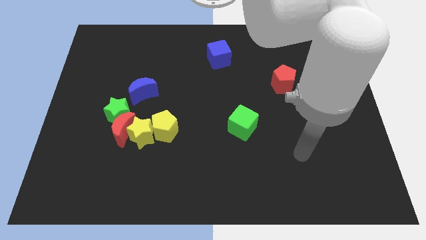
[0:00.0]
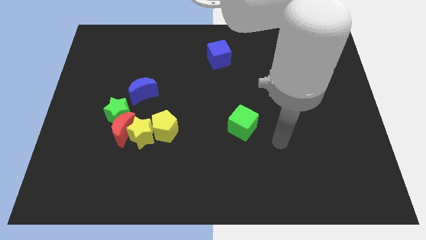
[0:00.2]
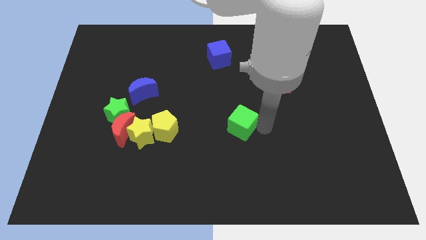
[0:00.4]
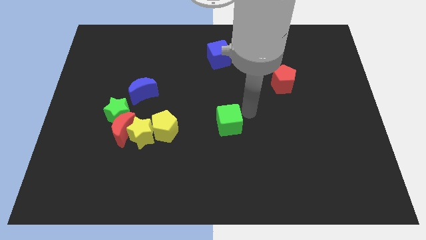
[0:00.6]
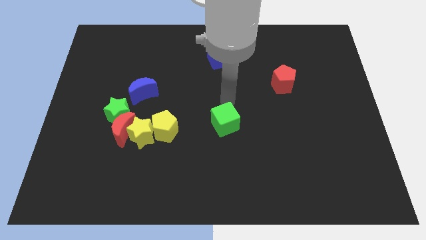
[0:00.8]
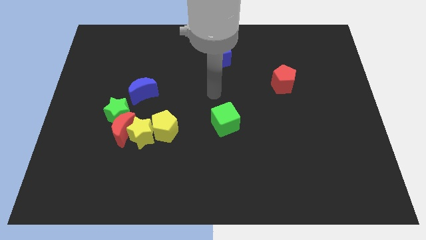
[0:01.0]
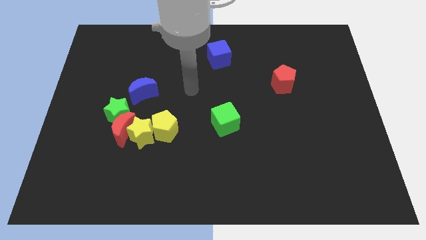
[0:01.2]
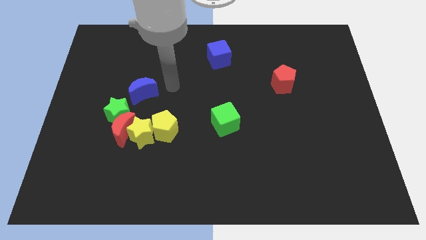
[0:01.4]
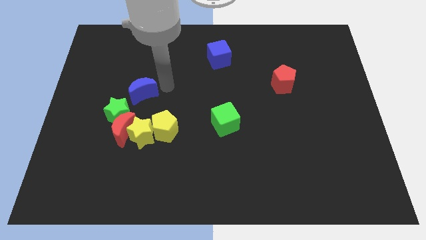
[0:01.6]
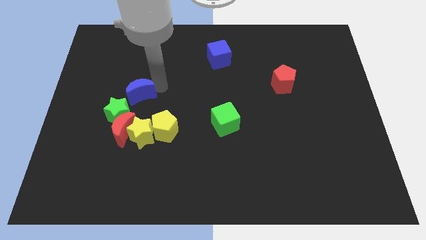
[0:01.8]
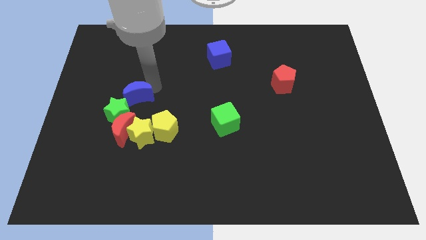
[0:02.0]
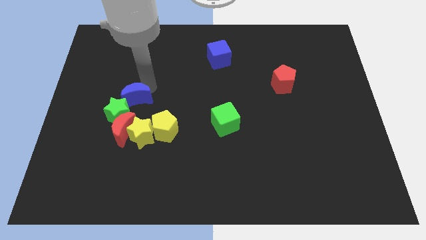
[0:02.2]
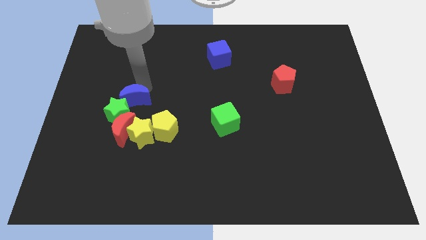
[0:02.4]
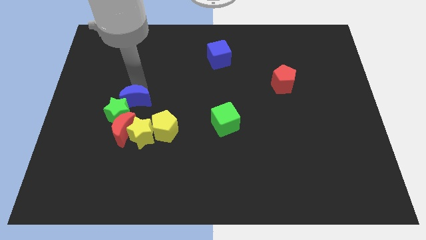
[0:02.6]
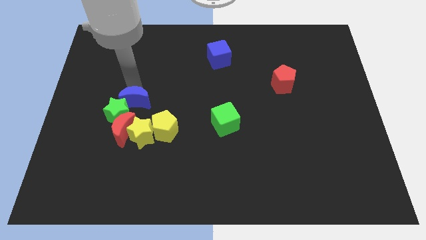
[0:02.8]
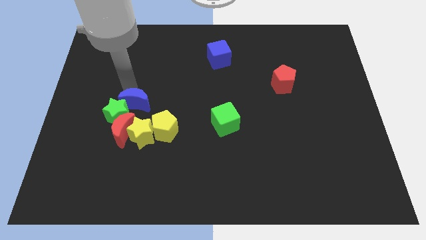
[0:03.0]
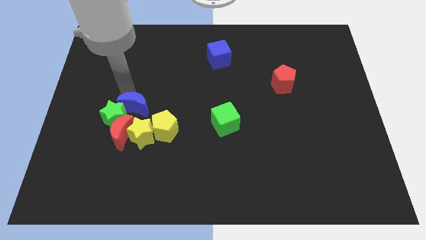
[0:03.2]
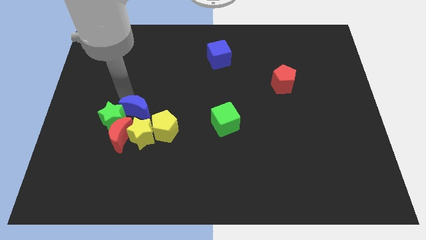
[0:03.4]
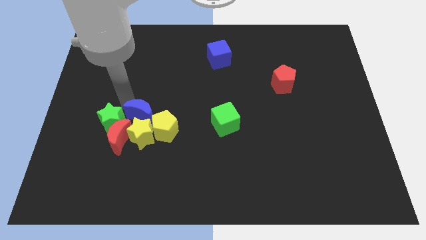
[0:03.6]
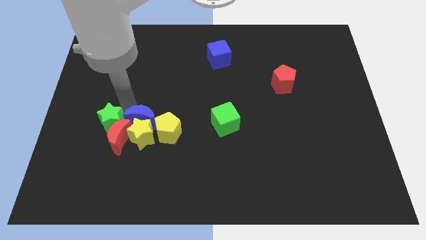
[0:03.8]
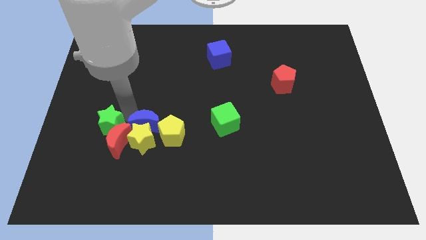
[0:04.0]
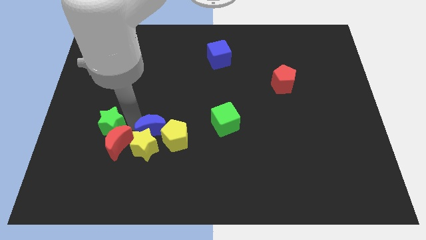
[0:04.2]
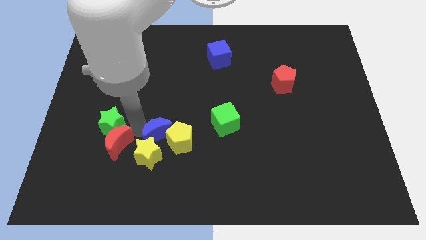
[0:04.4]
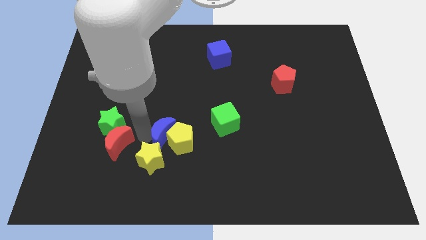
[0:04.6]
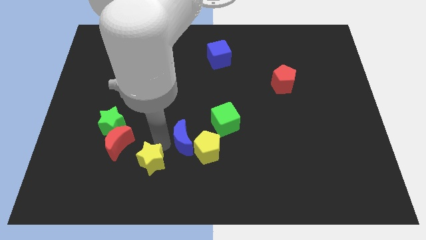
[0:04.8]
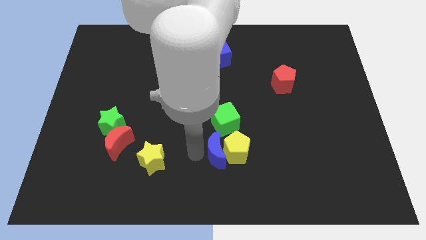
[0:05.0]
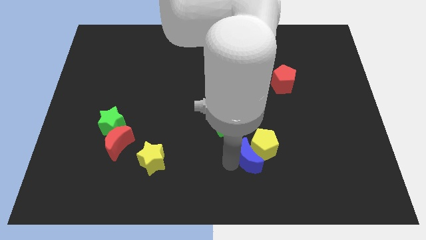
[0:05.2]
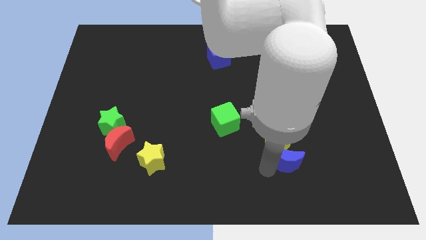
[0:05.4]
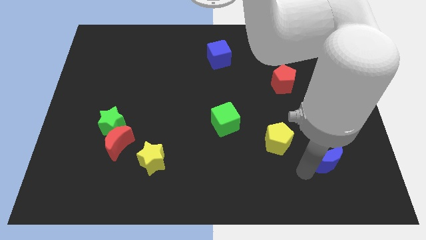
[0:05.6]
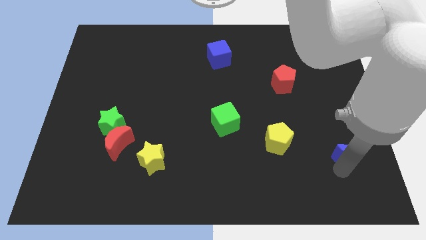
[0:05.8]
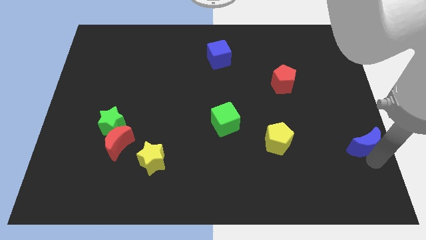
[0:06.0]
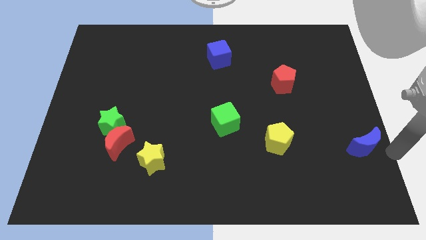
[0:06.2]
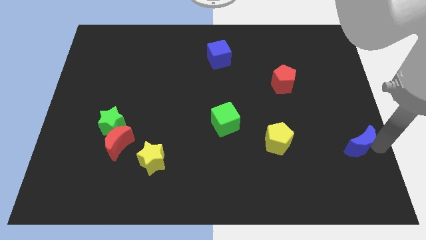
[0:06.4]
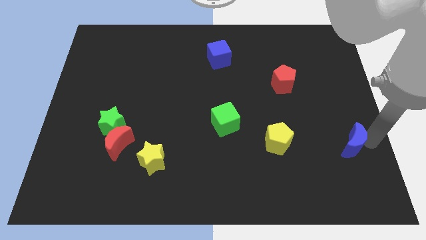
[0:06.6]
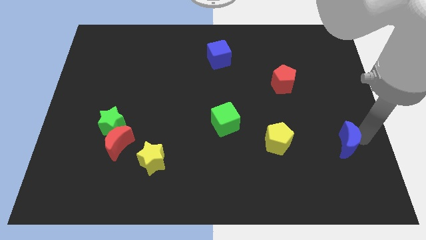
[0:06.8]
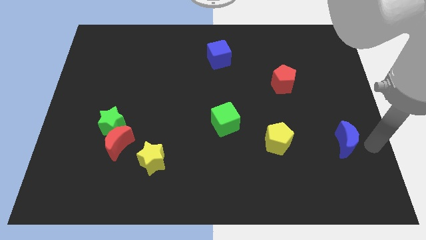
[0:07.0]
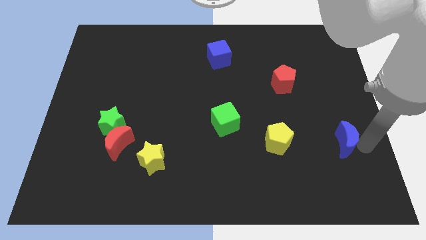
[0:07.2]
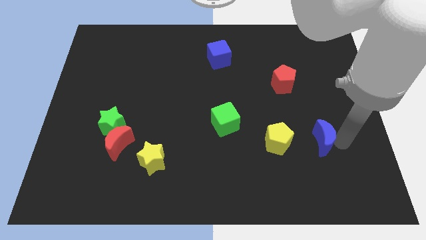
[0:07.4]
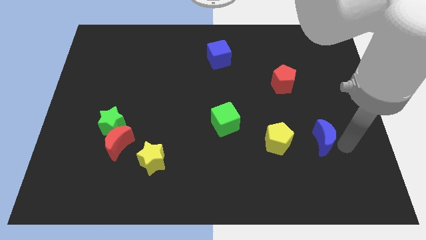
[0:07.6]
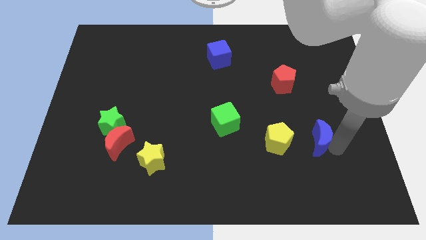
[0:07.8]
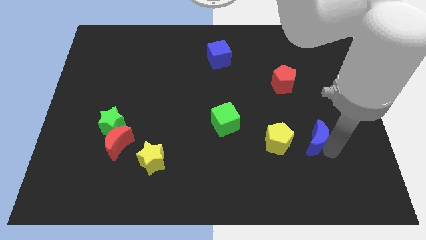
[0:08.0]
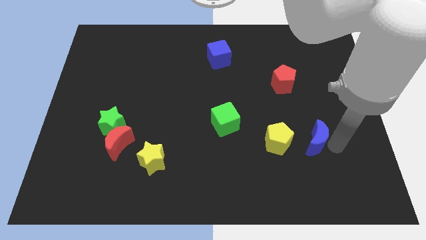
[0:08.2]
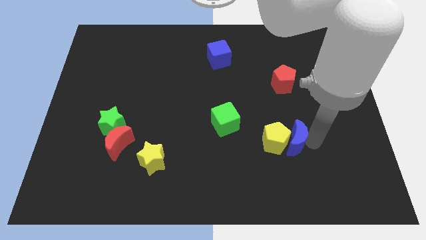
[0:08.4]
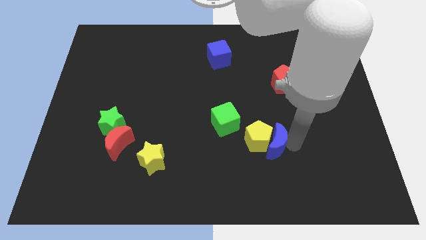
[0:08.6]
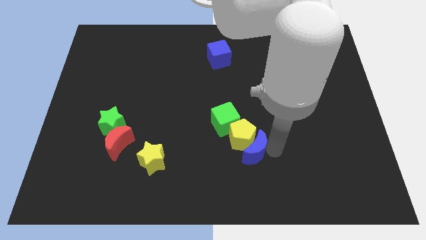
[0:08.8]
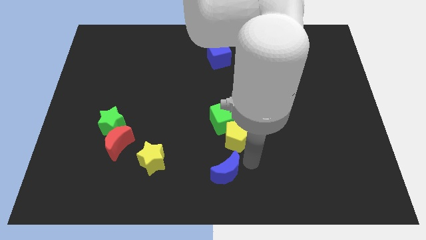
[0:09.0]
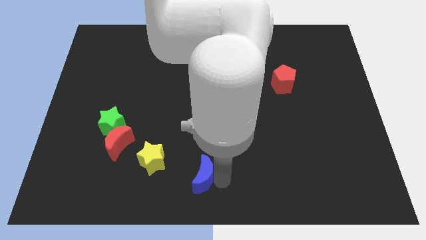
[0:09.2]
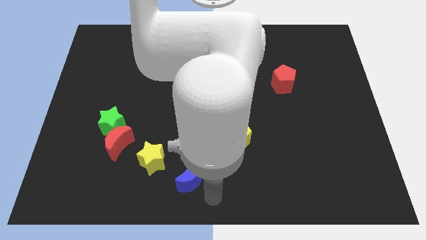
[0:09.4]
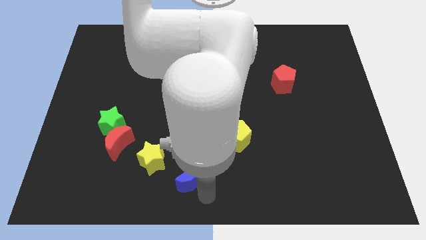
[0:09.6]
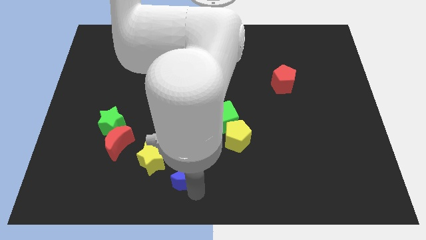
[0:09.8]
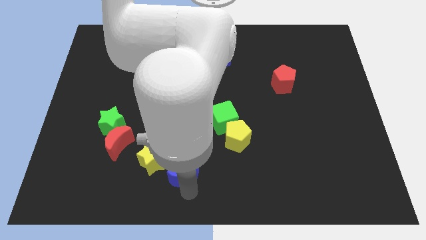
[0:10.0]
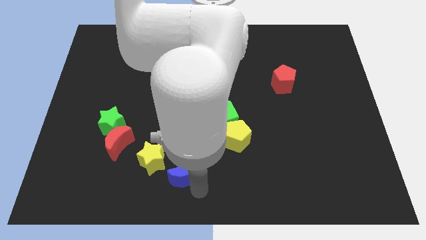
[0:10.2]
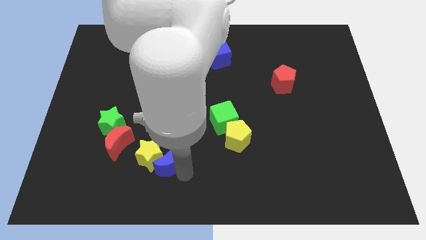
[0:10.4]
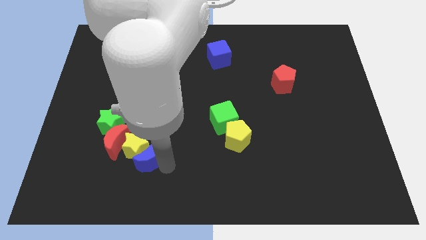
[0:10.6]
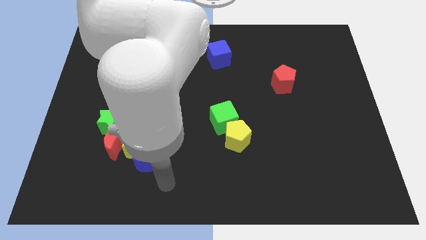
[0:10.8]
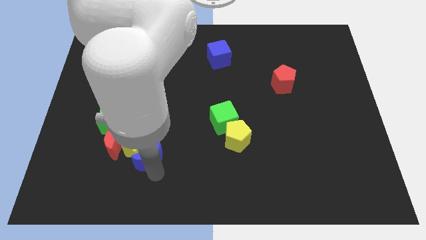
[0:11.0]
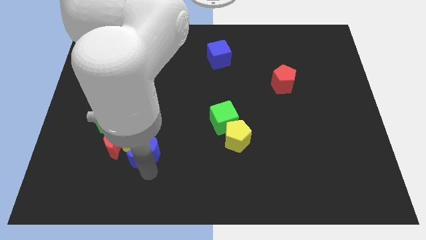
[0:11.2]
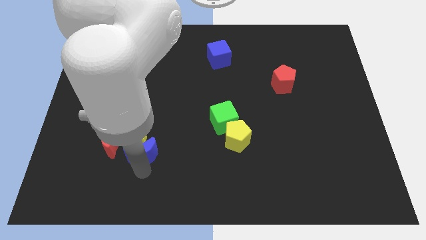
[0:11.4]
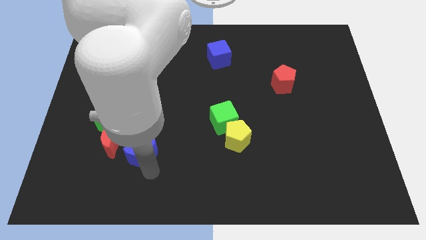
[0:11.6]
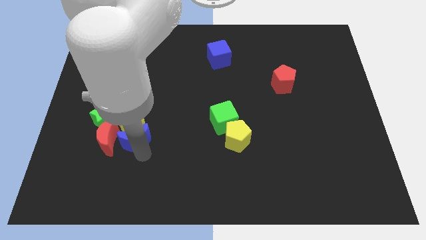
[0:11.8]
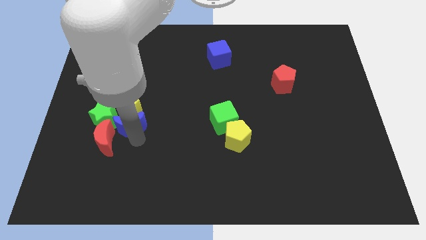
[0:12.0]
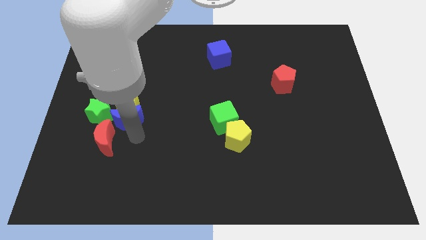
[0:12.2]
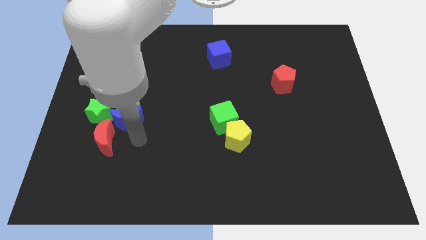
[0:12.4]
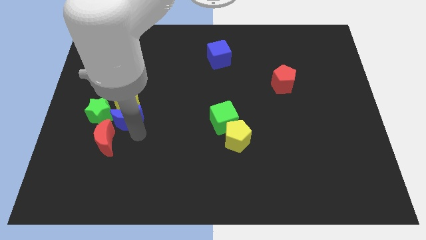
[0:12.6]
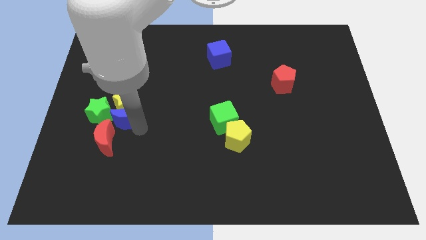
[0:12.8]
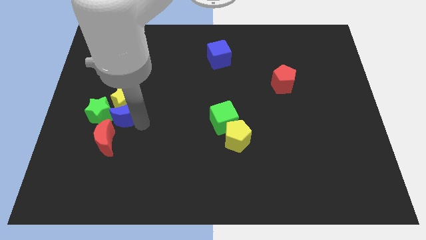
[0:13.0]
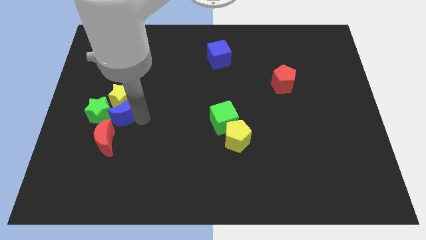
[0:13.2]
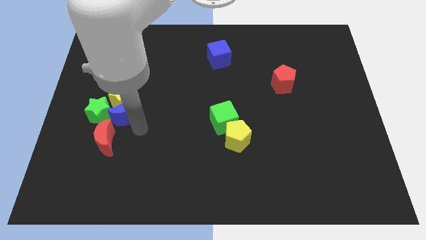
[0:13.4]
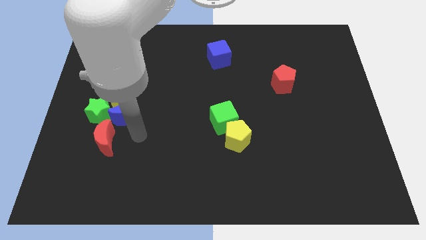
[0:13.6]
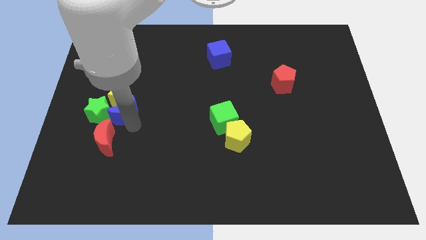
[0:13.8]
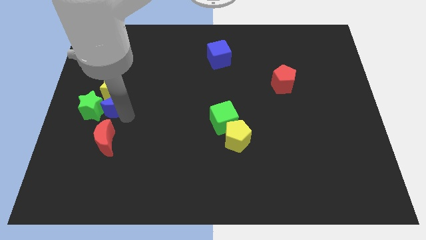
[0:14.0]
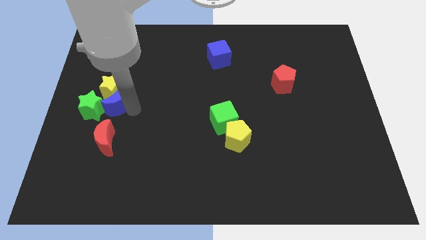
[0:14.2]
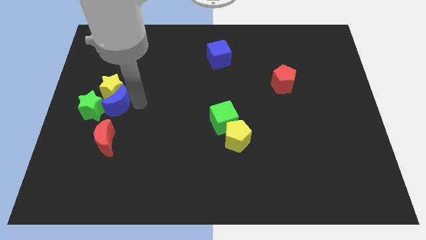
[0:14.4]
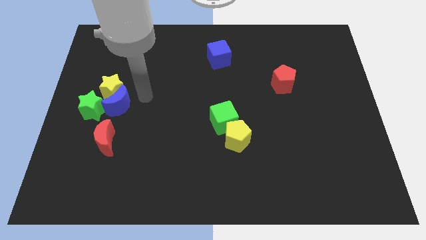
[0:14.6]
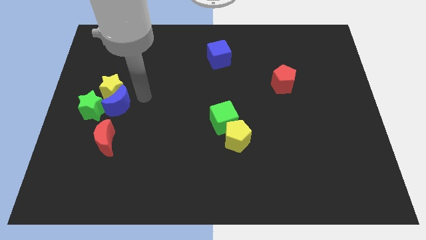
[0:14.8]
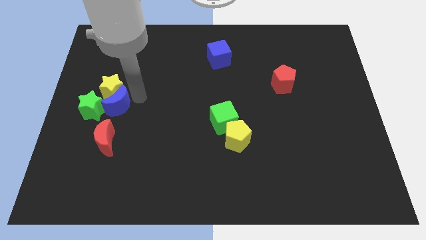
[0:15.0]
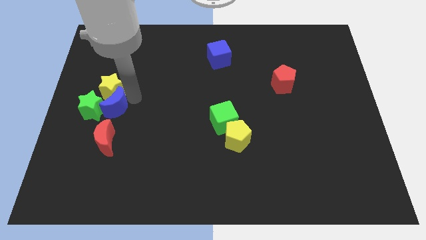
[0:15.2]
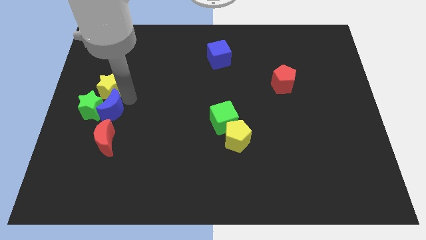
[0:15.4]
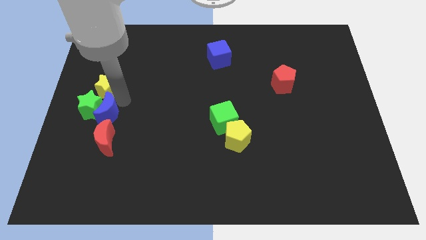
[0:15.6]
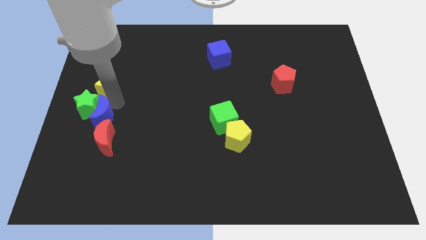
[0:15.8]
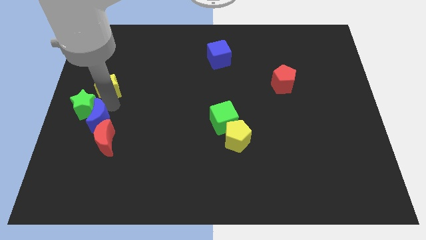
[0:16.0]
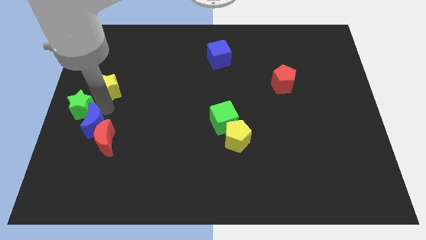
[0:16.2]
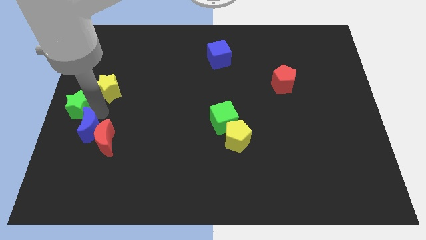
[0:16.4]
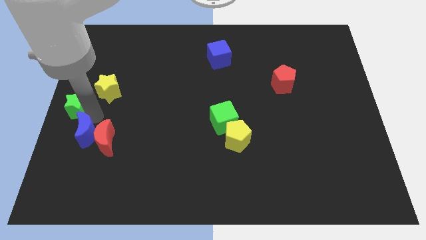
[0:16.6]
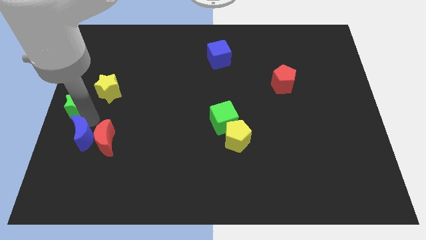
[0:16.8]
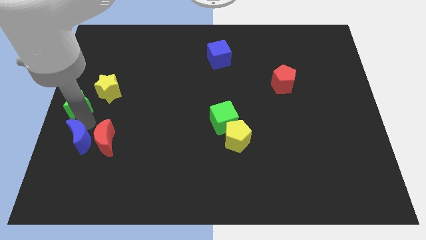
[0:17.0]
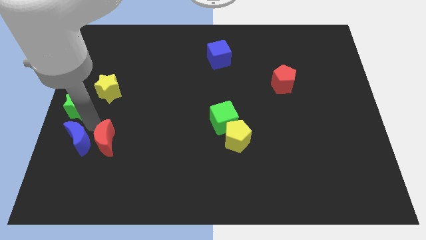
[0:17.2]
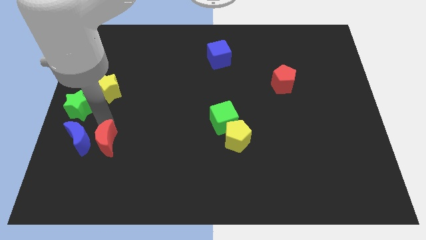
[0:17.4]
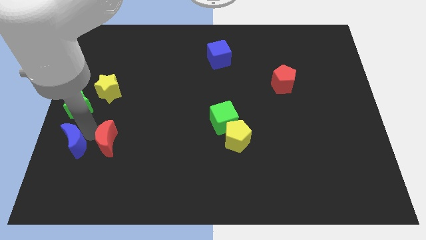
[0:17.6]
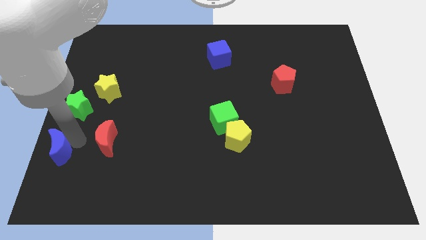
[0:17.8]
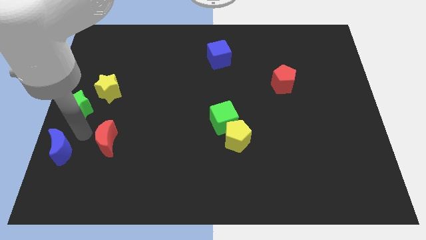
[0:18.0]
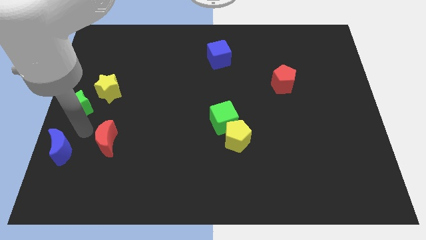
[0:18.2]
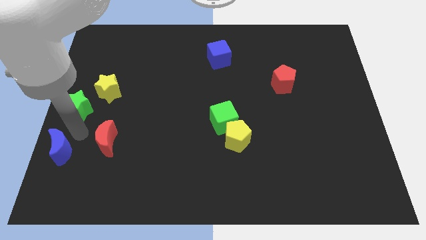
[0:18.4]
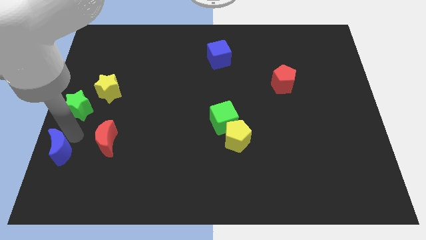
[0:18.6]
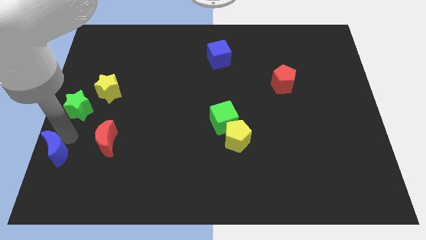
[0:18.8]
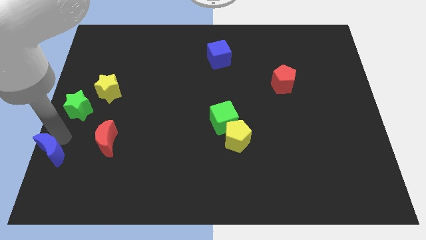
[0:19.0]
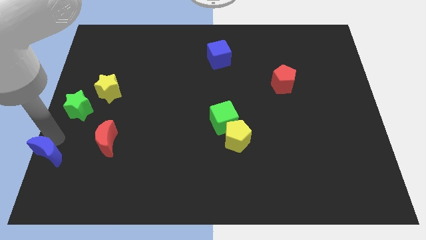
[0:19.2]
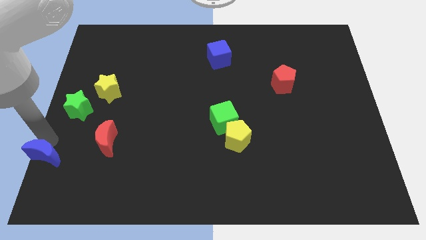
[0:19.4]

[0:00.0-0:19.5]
slide the blue moon to the bottom left of the board
